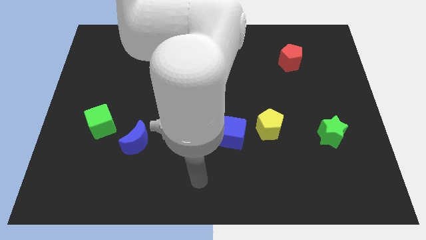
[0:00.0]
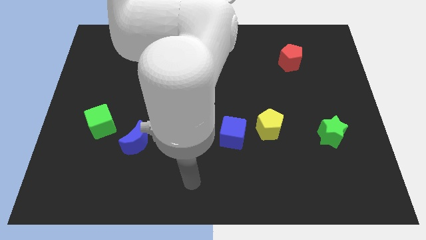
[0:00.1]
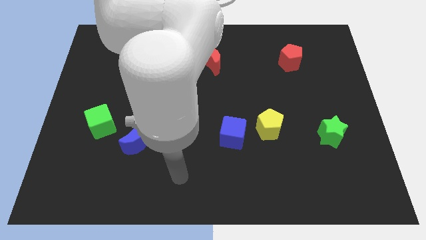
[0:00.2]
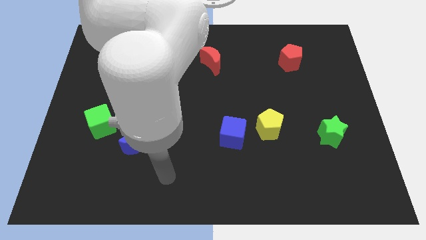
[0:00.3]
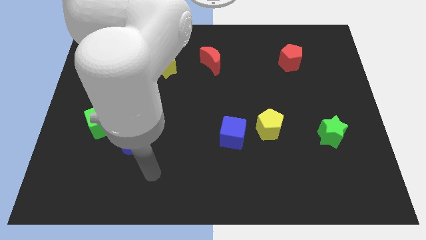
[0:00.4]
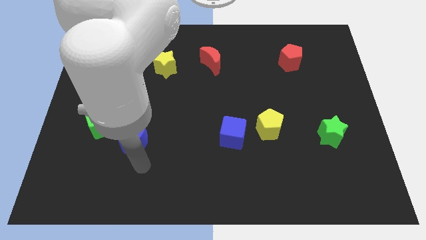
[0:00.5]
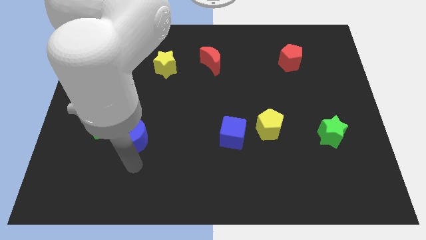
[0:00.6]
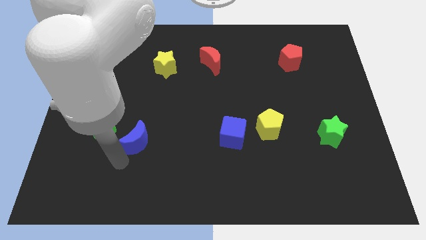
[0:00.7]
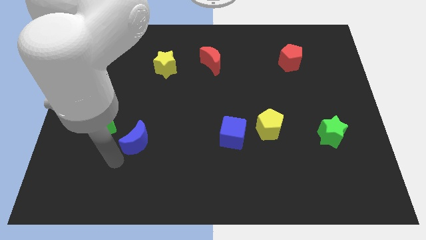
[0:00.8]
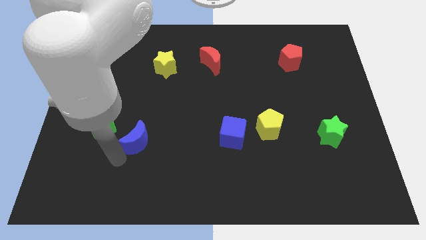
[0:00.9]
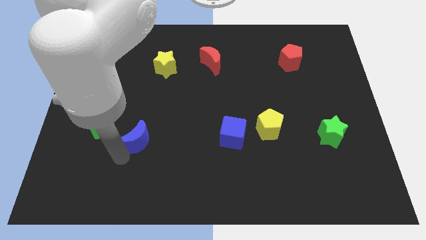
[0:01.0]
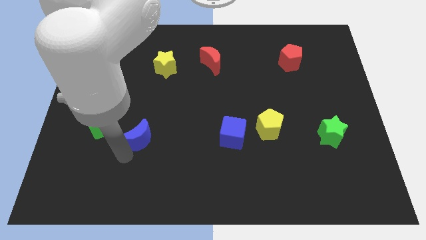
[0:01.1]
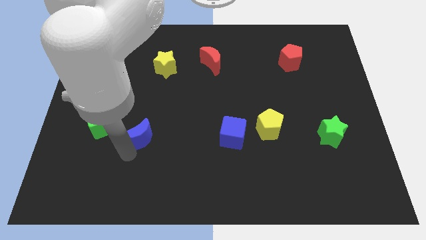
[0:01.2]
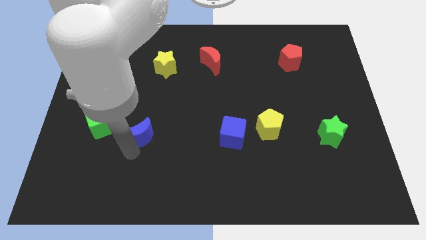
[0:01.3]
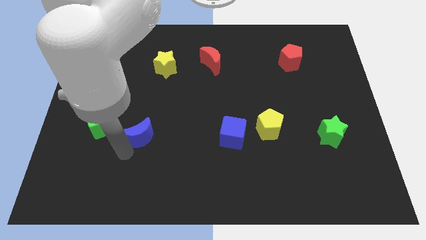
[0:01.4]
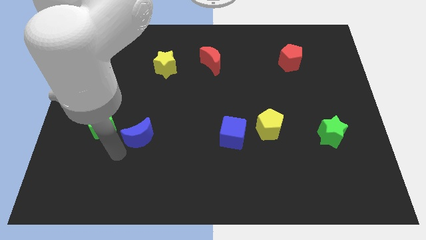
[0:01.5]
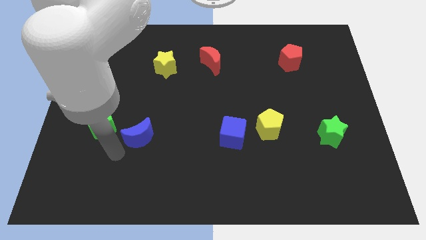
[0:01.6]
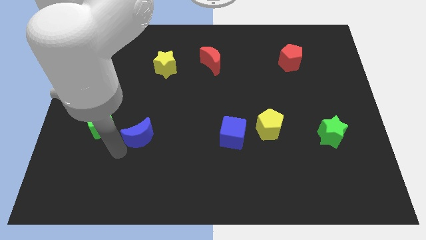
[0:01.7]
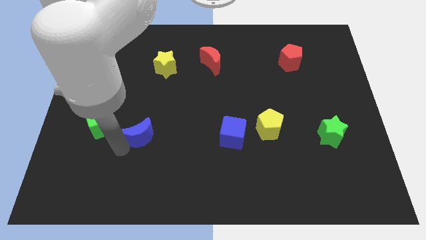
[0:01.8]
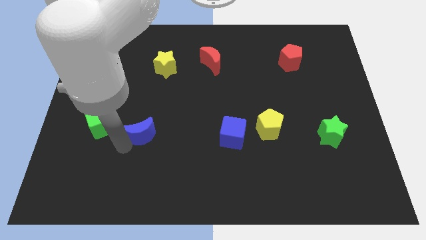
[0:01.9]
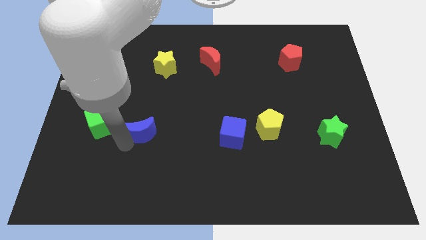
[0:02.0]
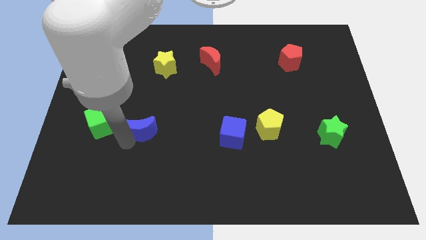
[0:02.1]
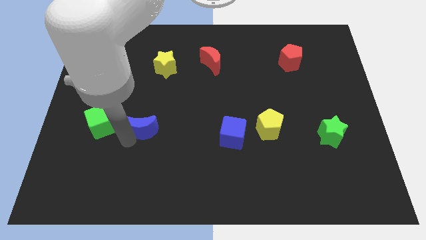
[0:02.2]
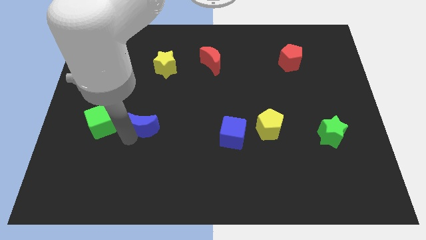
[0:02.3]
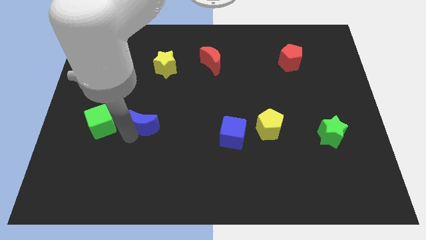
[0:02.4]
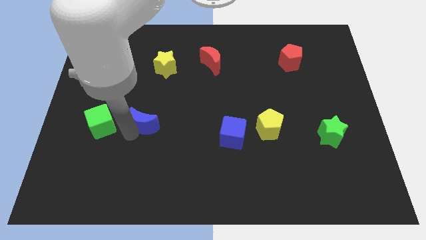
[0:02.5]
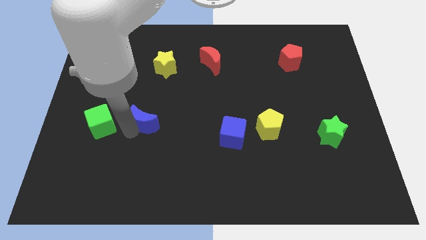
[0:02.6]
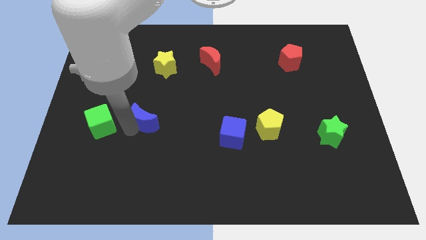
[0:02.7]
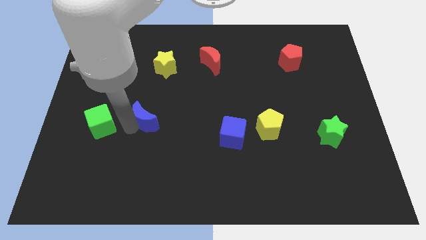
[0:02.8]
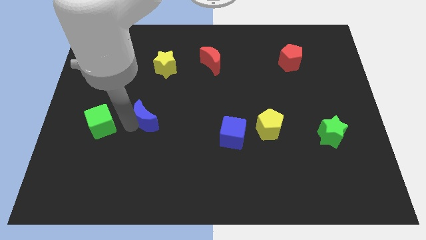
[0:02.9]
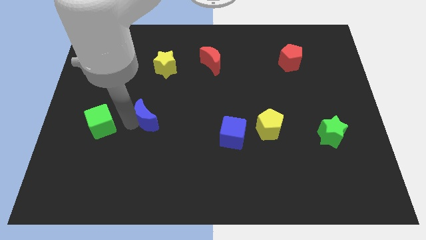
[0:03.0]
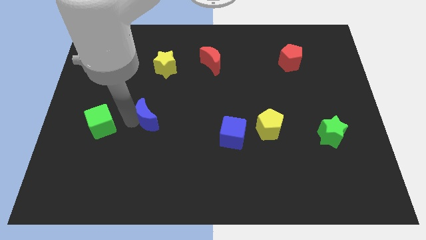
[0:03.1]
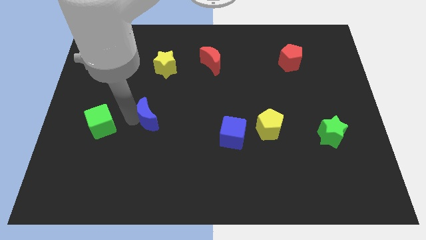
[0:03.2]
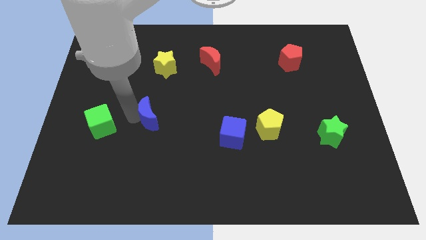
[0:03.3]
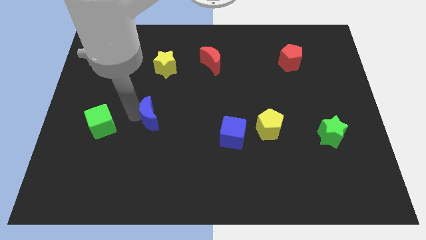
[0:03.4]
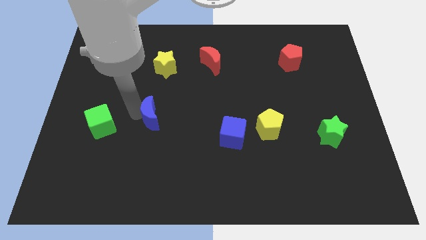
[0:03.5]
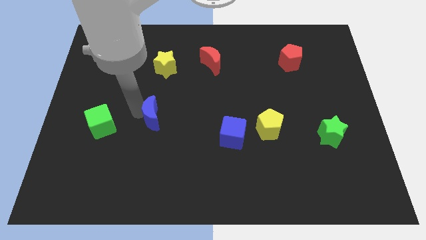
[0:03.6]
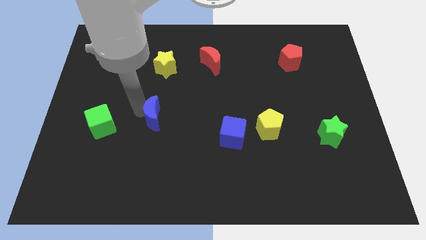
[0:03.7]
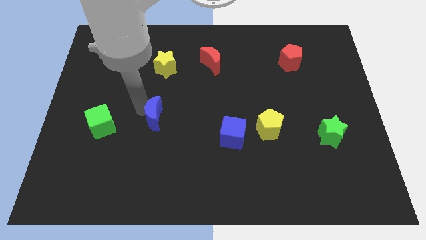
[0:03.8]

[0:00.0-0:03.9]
move the blue moon upwards and then right a little

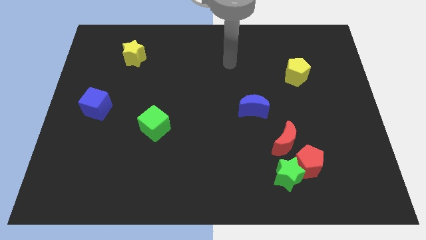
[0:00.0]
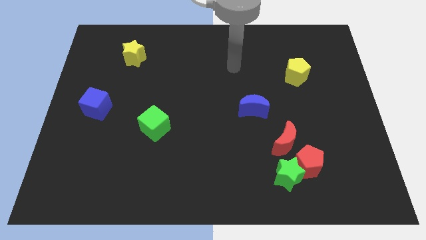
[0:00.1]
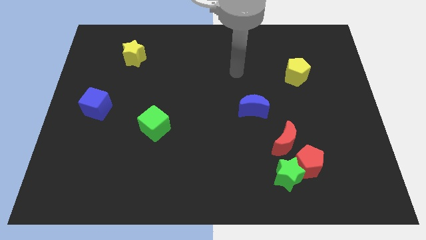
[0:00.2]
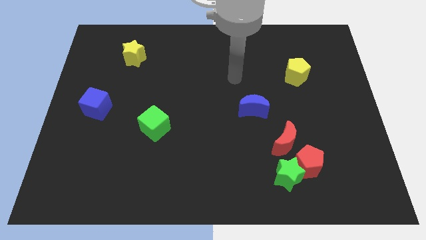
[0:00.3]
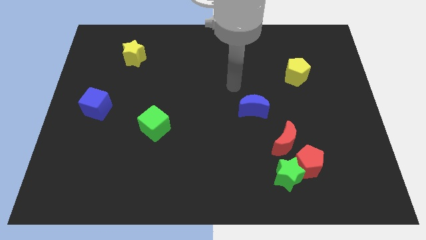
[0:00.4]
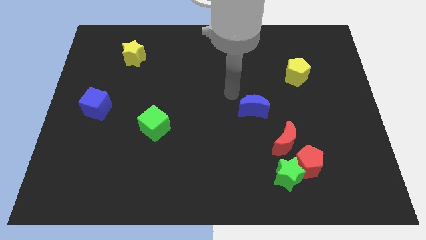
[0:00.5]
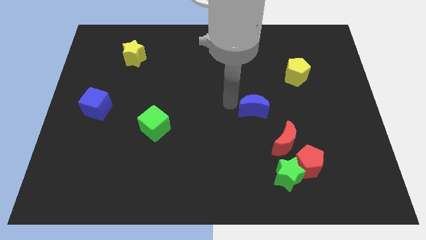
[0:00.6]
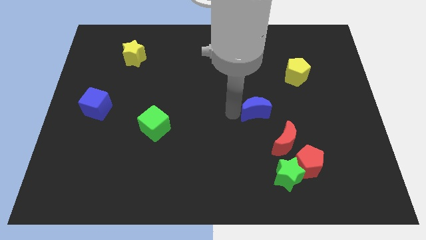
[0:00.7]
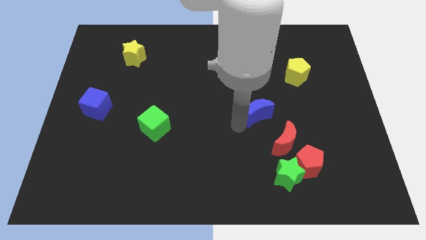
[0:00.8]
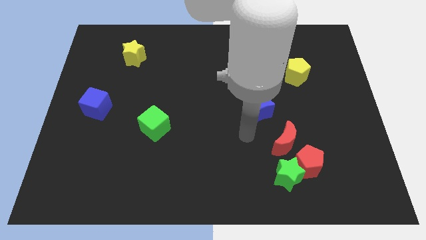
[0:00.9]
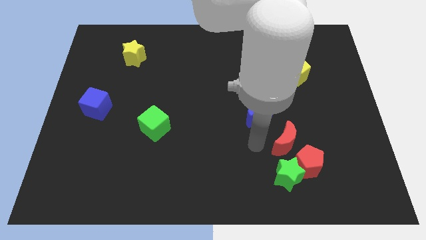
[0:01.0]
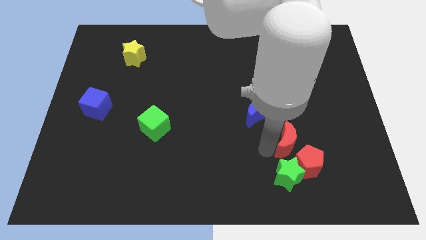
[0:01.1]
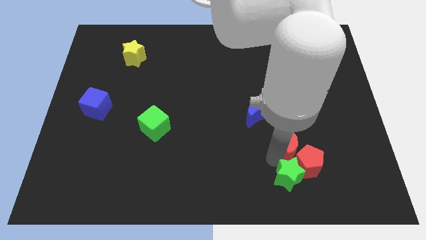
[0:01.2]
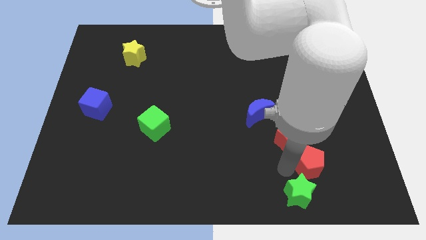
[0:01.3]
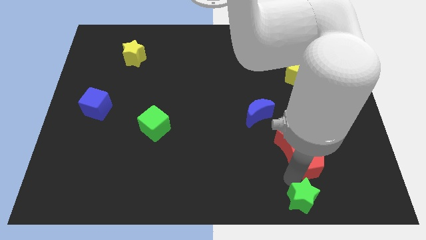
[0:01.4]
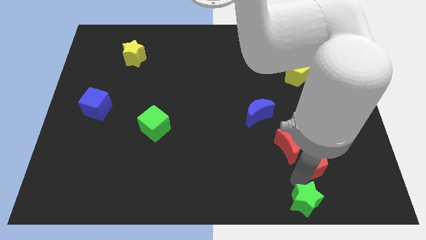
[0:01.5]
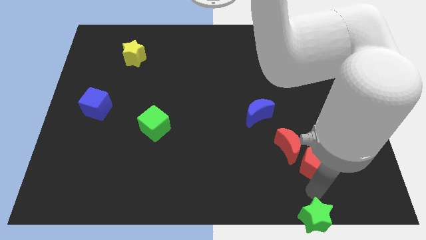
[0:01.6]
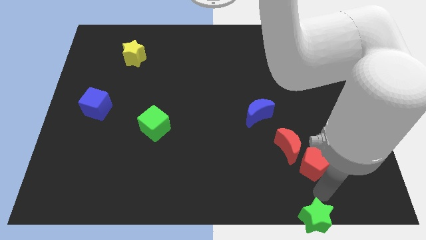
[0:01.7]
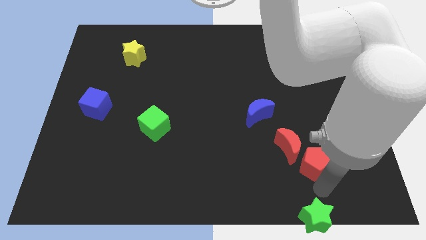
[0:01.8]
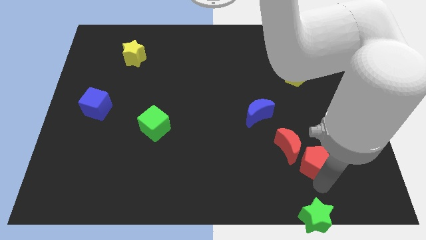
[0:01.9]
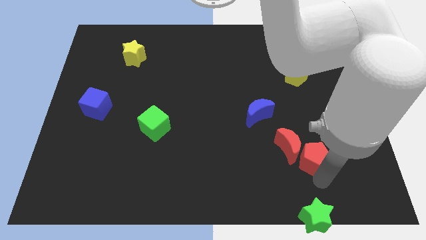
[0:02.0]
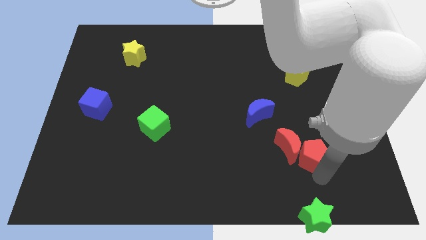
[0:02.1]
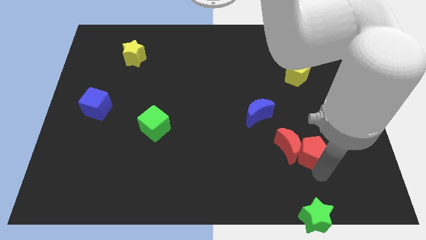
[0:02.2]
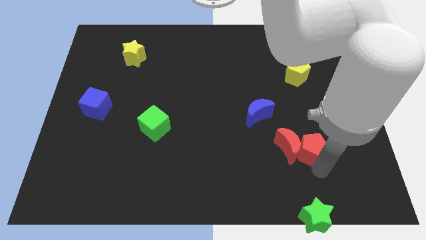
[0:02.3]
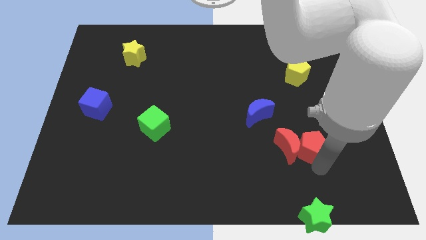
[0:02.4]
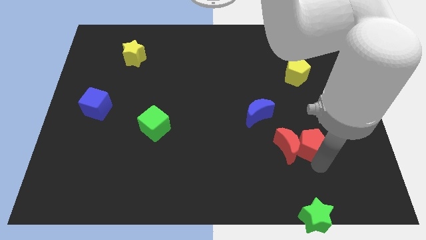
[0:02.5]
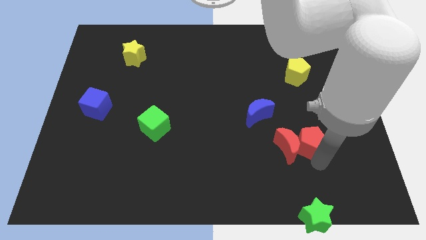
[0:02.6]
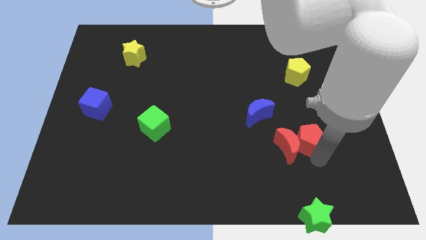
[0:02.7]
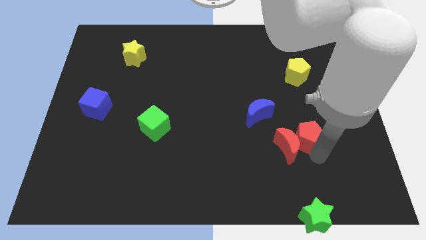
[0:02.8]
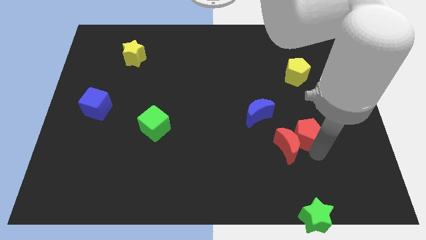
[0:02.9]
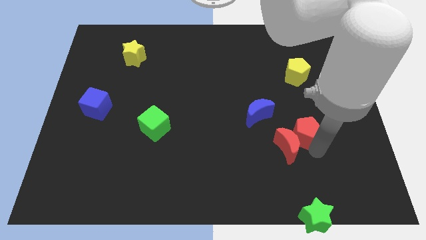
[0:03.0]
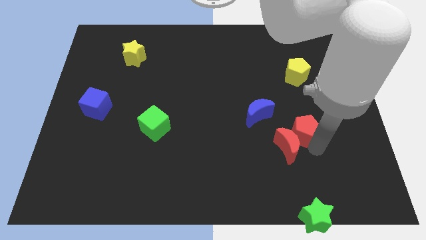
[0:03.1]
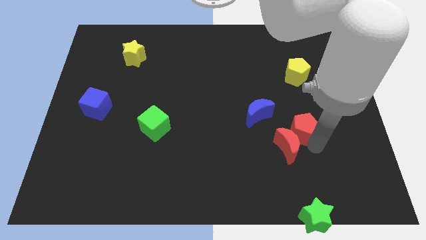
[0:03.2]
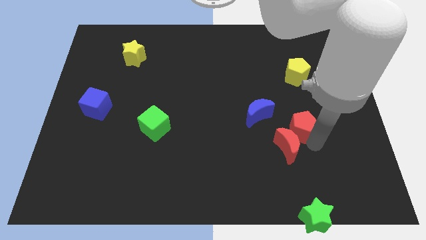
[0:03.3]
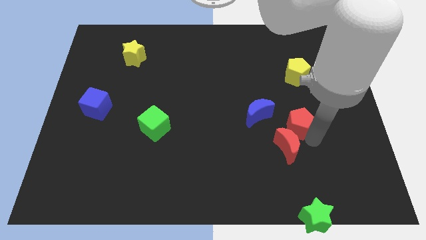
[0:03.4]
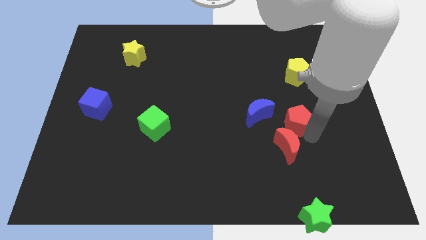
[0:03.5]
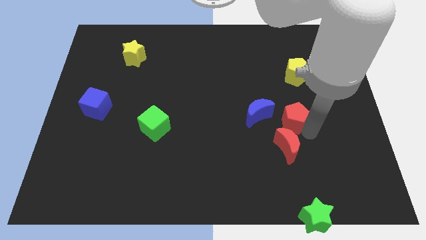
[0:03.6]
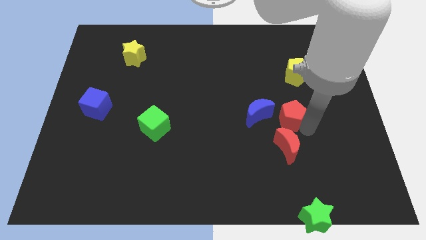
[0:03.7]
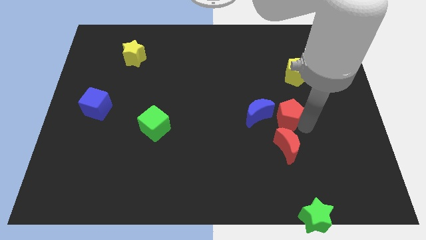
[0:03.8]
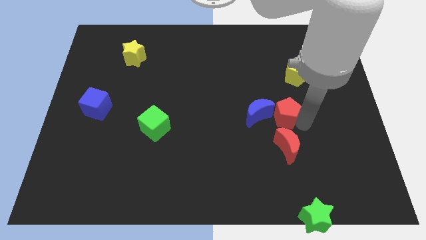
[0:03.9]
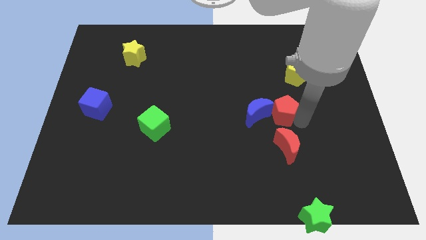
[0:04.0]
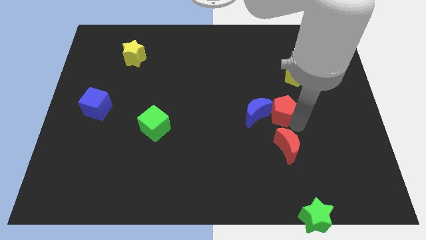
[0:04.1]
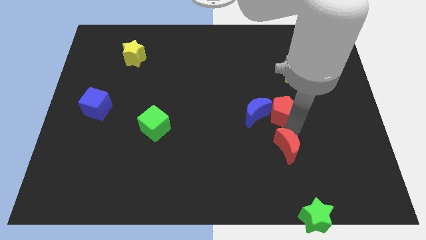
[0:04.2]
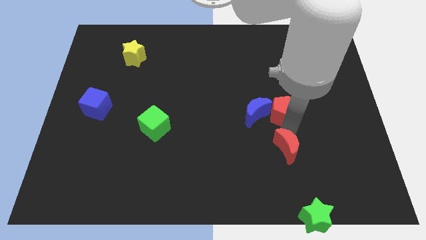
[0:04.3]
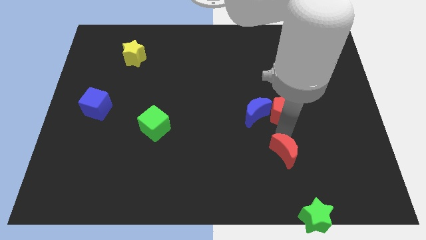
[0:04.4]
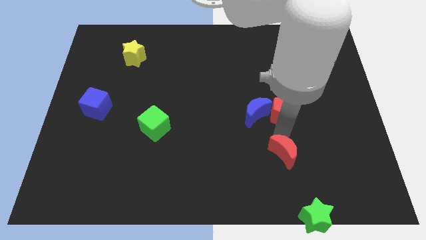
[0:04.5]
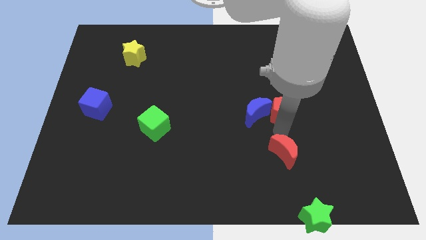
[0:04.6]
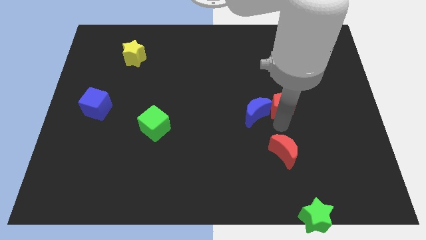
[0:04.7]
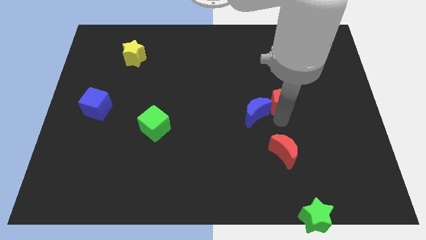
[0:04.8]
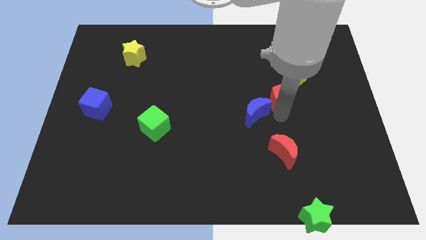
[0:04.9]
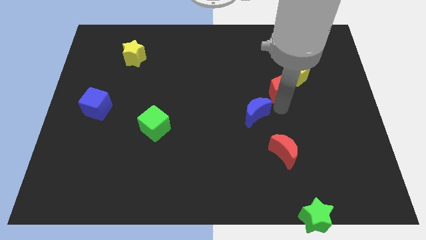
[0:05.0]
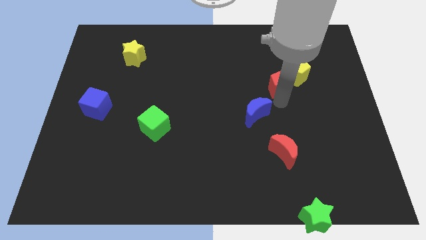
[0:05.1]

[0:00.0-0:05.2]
move the red pentagon up
